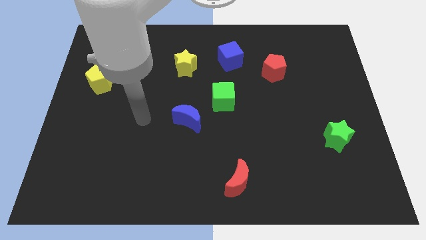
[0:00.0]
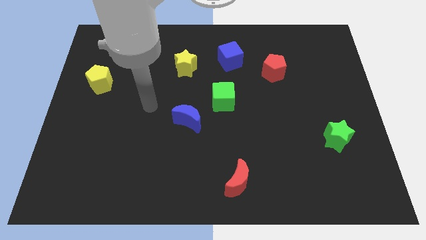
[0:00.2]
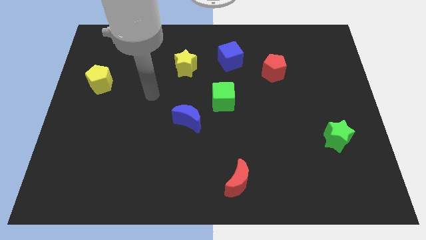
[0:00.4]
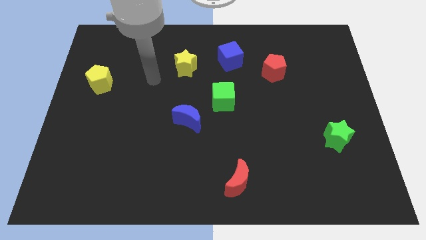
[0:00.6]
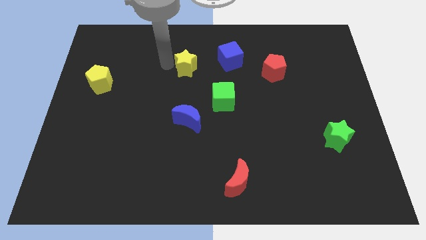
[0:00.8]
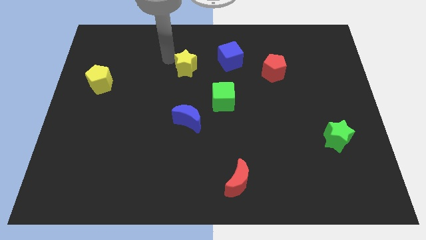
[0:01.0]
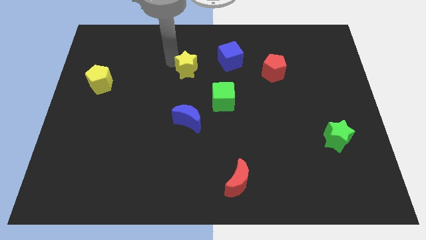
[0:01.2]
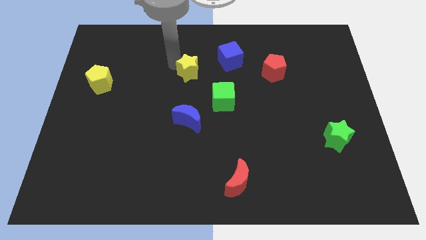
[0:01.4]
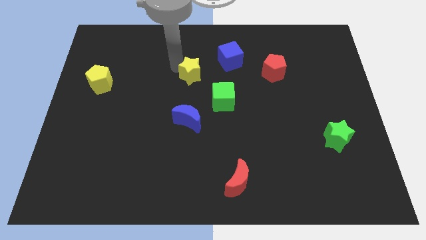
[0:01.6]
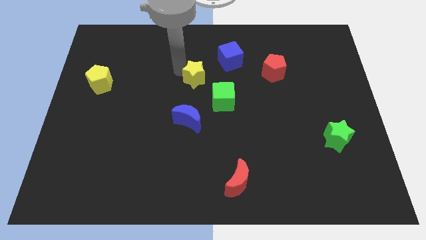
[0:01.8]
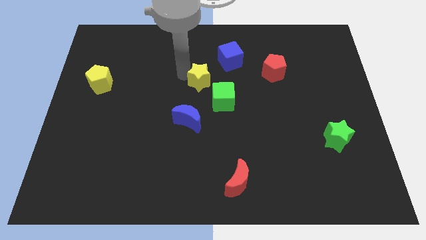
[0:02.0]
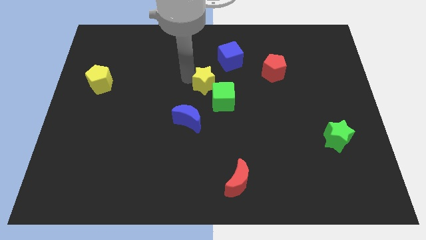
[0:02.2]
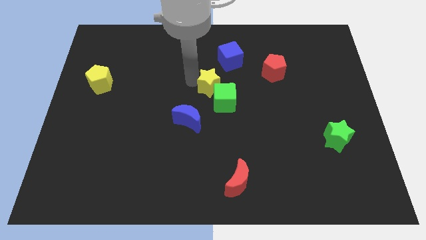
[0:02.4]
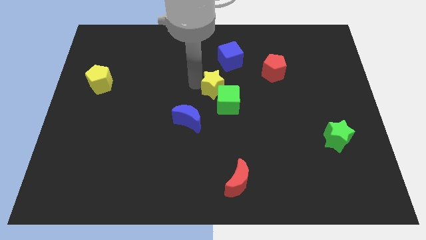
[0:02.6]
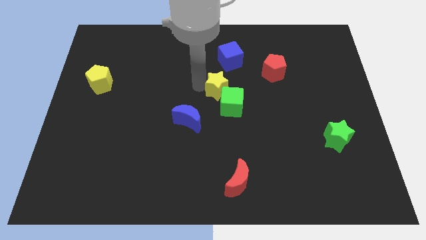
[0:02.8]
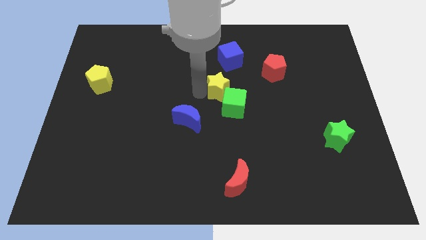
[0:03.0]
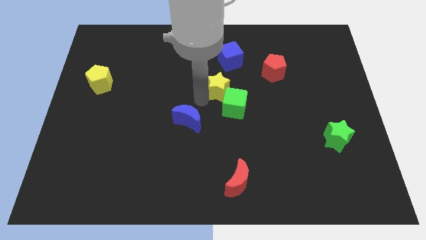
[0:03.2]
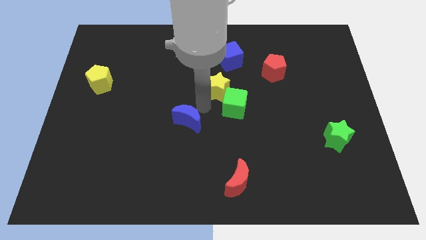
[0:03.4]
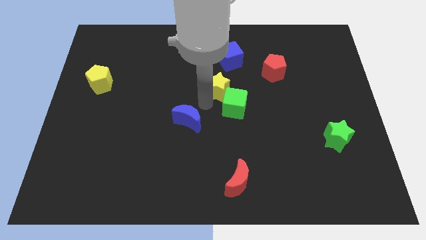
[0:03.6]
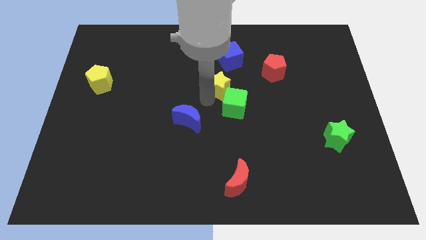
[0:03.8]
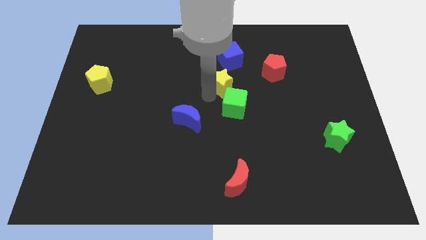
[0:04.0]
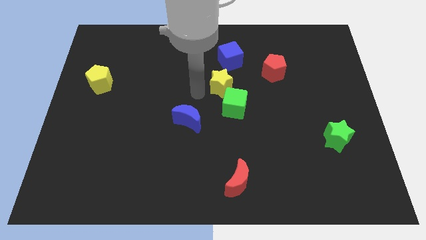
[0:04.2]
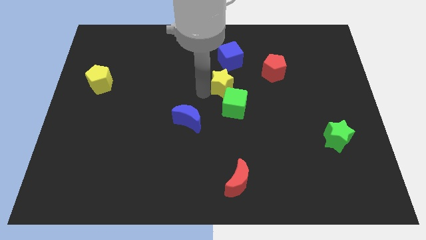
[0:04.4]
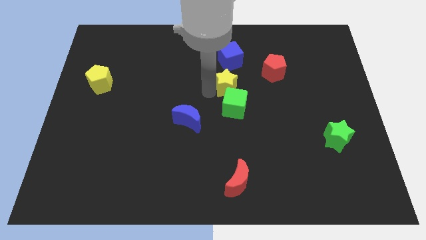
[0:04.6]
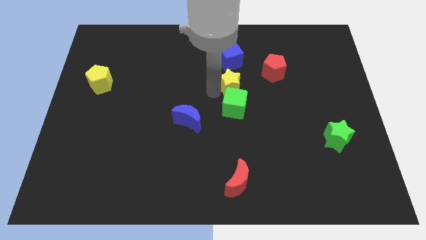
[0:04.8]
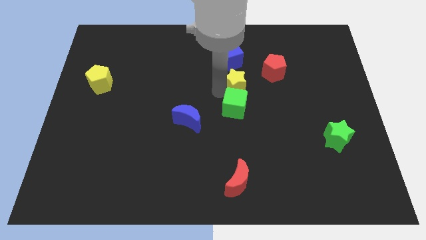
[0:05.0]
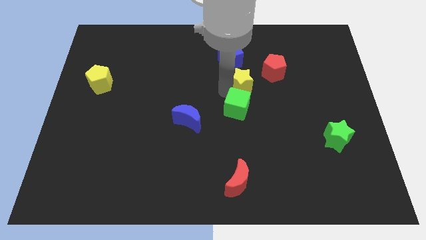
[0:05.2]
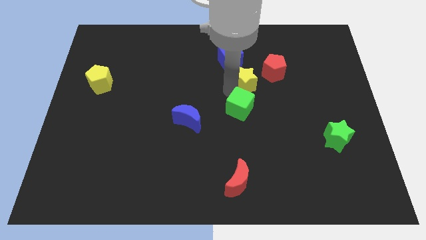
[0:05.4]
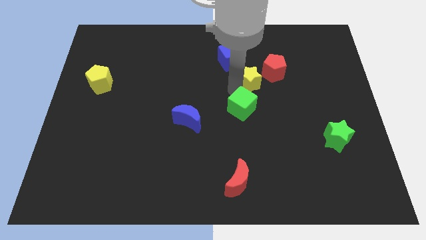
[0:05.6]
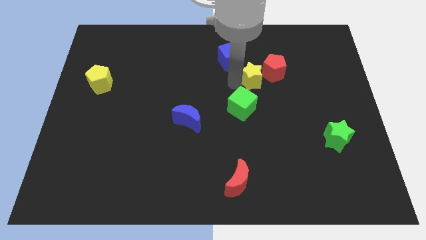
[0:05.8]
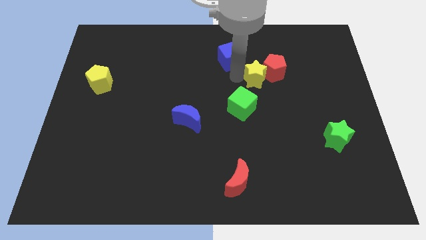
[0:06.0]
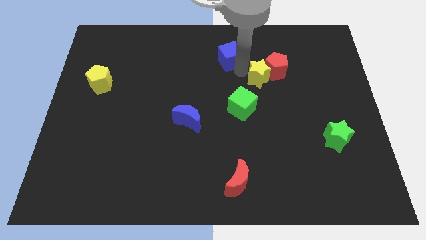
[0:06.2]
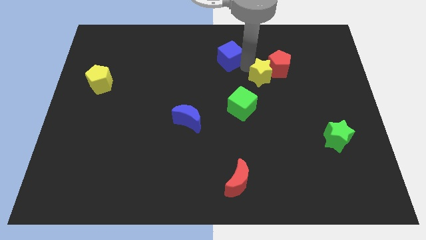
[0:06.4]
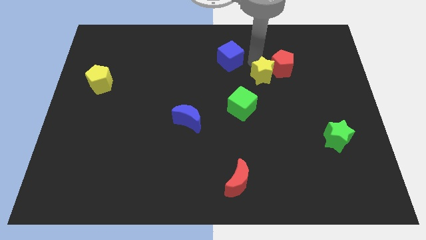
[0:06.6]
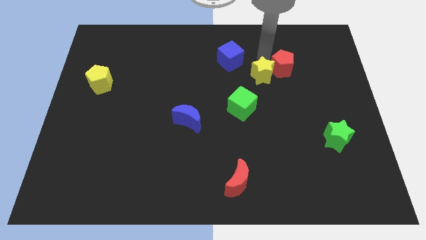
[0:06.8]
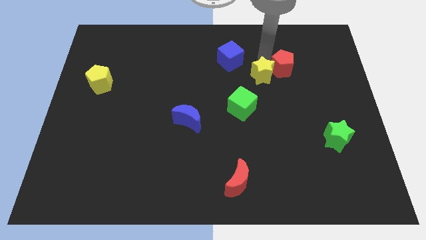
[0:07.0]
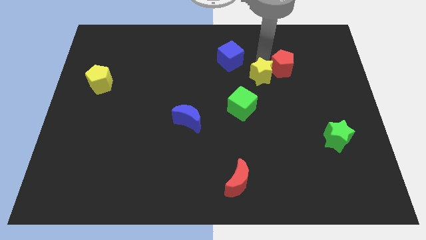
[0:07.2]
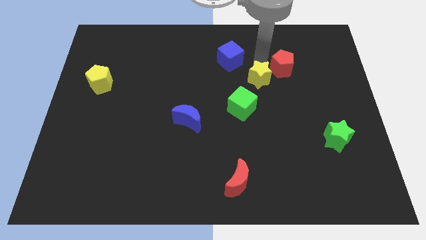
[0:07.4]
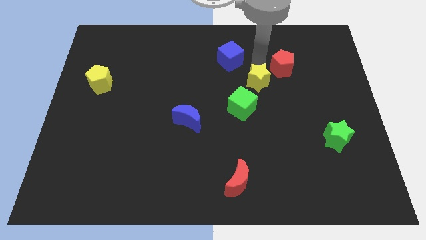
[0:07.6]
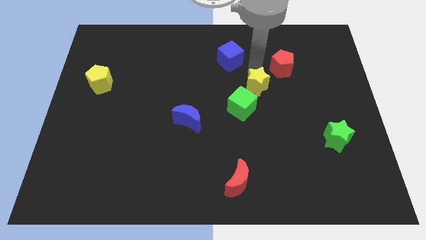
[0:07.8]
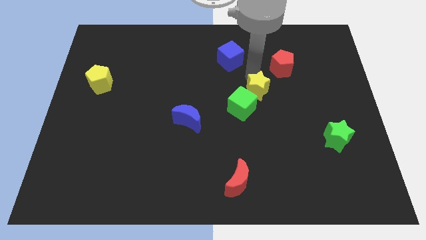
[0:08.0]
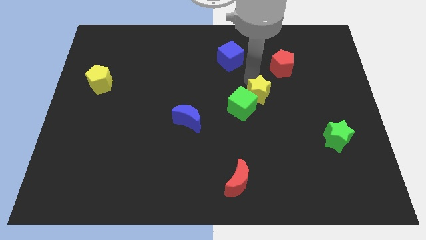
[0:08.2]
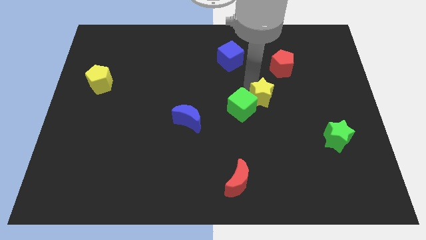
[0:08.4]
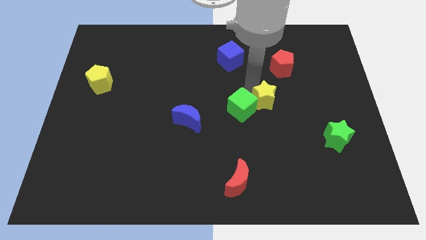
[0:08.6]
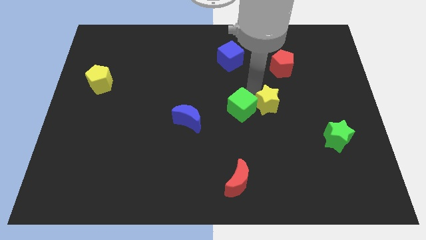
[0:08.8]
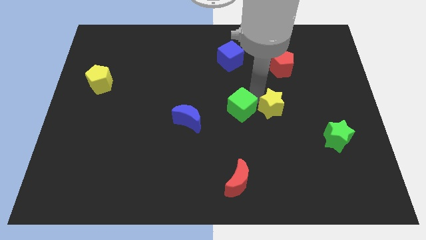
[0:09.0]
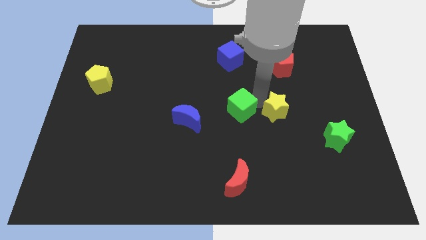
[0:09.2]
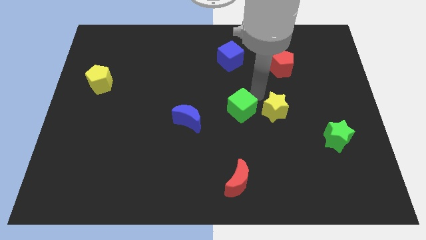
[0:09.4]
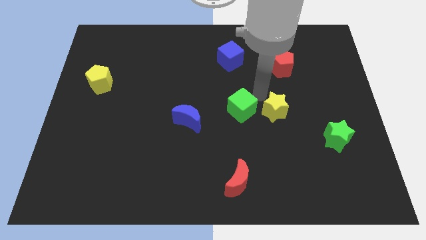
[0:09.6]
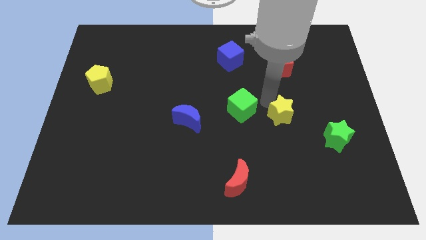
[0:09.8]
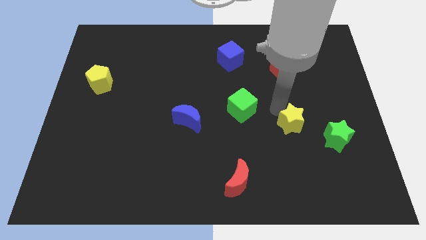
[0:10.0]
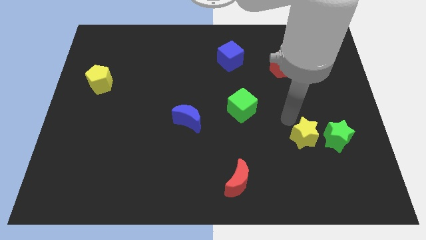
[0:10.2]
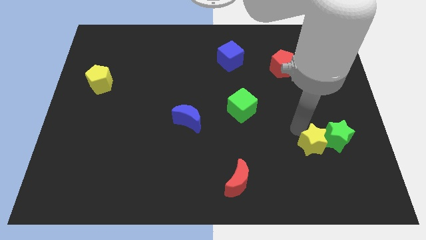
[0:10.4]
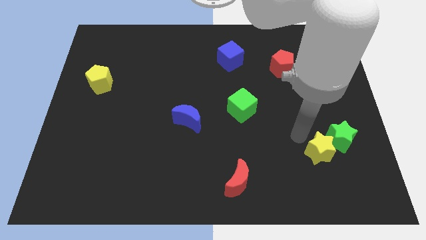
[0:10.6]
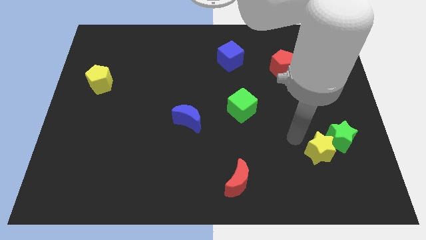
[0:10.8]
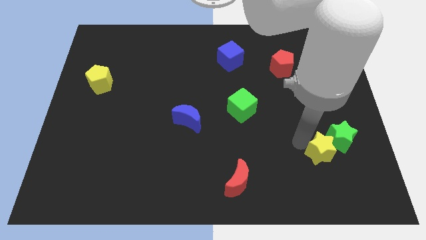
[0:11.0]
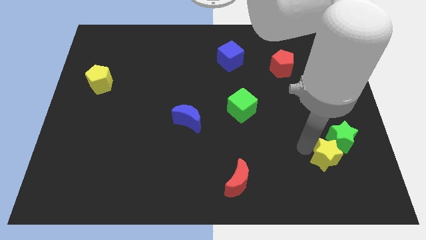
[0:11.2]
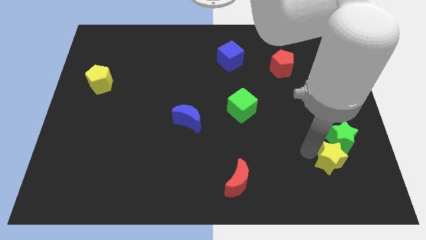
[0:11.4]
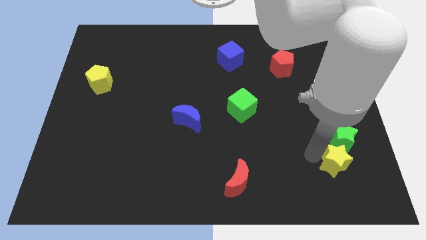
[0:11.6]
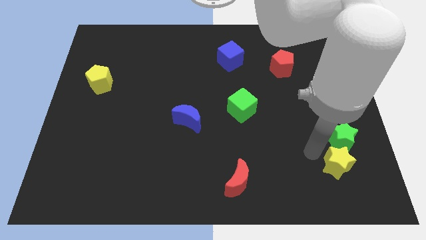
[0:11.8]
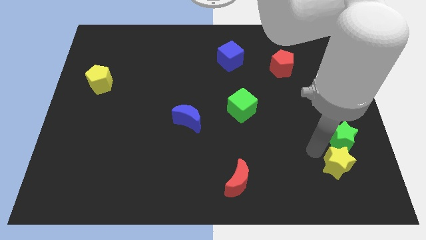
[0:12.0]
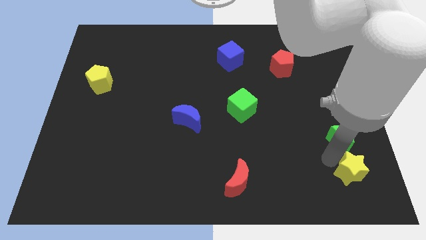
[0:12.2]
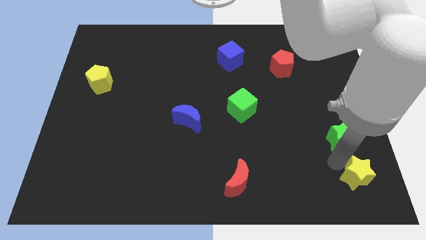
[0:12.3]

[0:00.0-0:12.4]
move the yellow star to the bottom right corner
